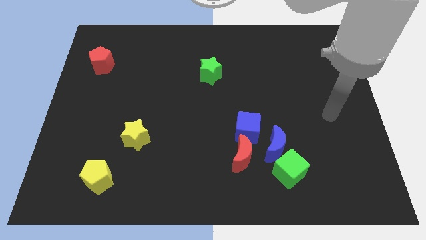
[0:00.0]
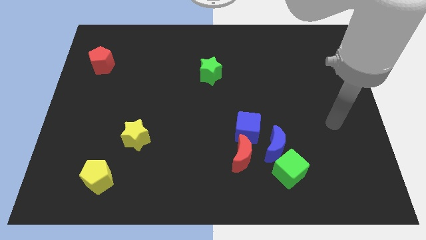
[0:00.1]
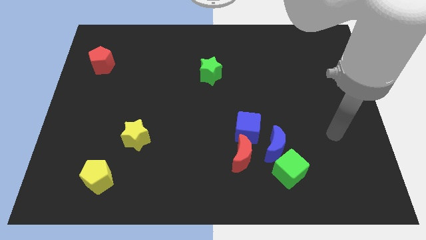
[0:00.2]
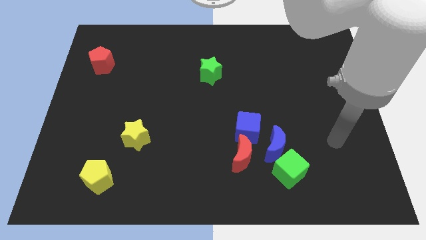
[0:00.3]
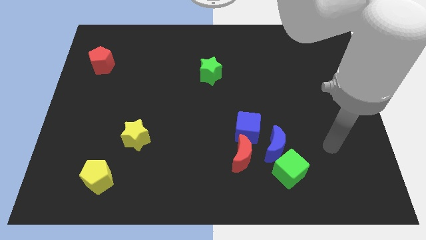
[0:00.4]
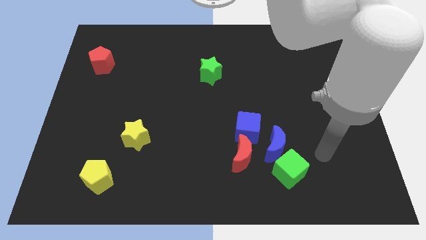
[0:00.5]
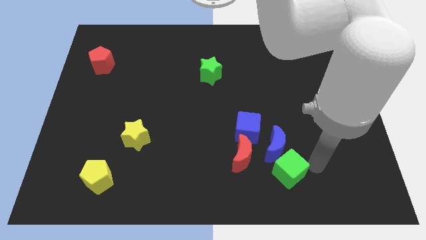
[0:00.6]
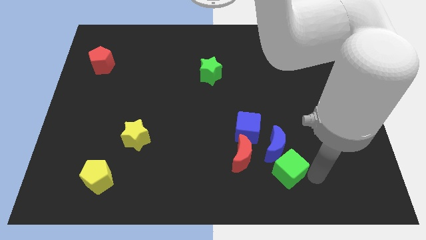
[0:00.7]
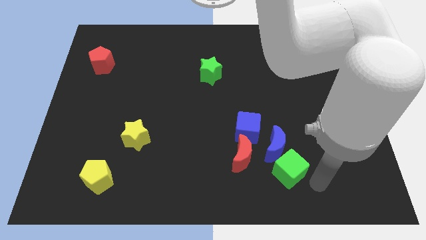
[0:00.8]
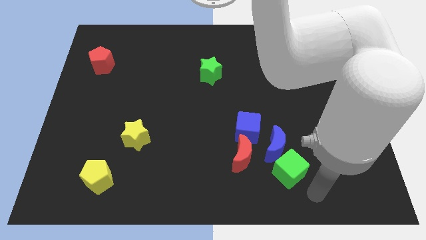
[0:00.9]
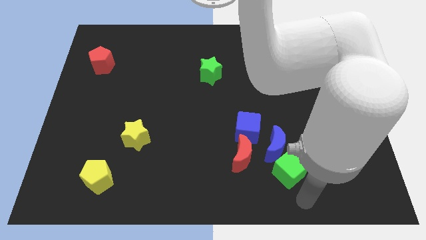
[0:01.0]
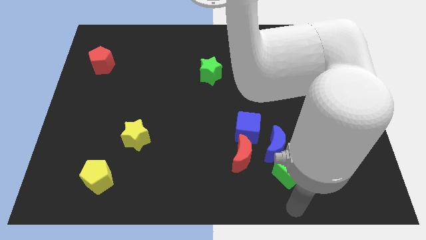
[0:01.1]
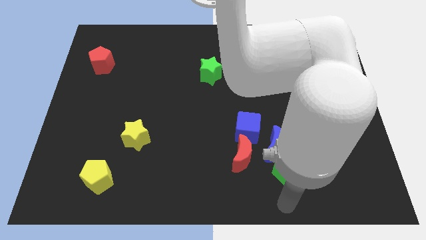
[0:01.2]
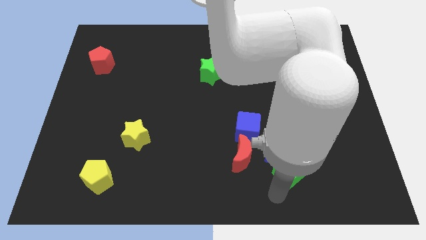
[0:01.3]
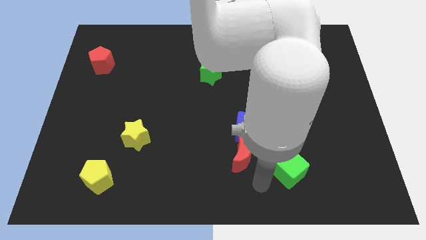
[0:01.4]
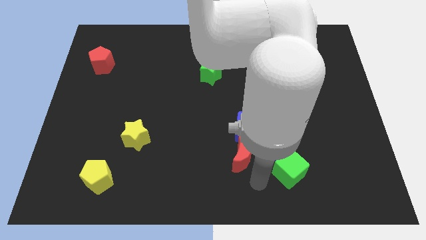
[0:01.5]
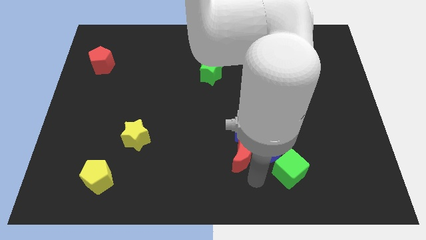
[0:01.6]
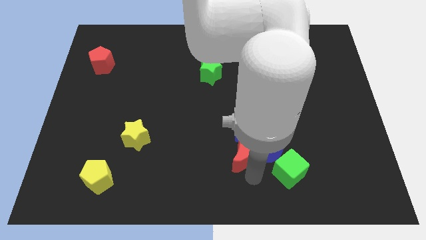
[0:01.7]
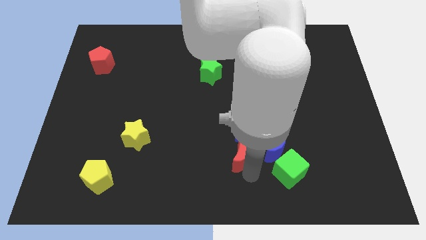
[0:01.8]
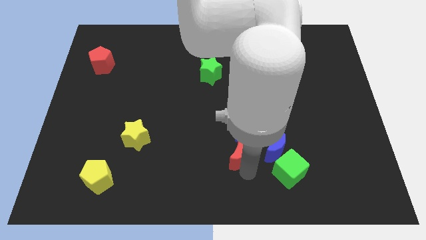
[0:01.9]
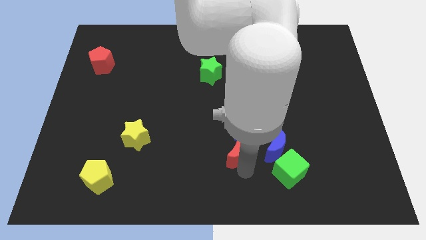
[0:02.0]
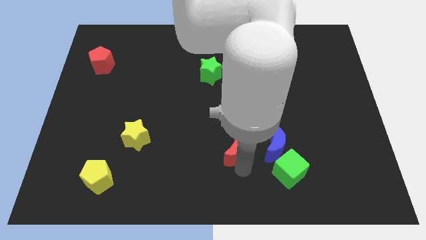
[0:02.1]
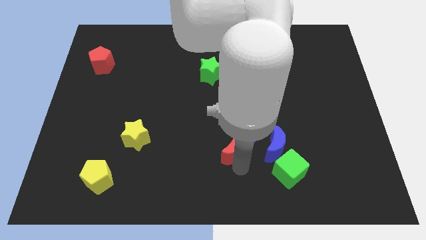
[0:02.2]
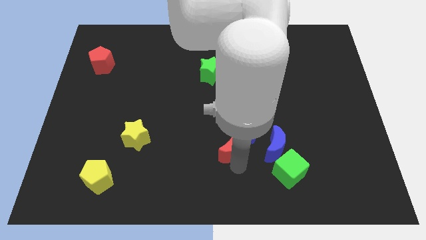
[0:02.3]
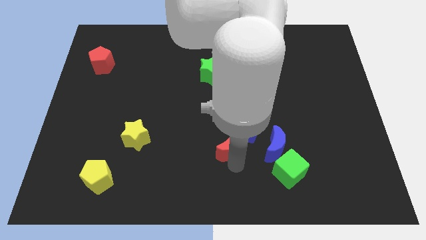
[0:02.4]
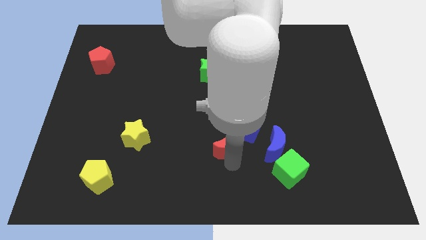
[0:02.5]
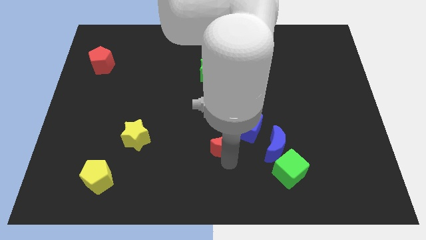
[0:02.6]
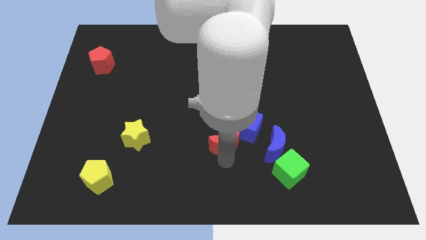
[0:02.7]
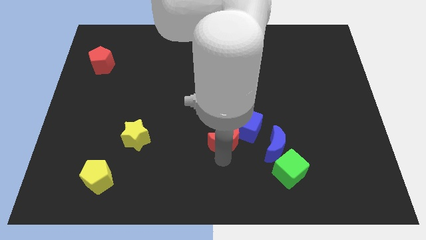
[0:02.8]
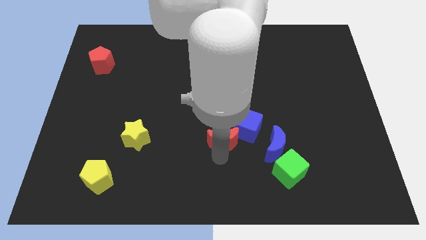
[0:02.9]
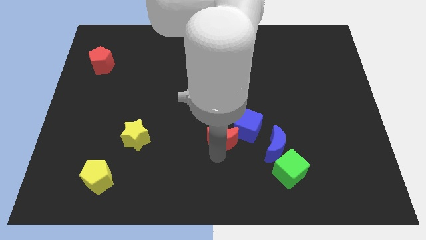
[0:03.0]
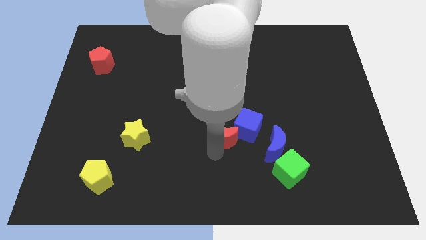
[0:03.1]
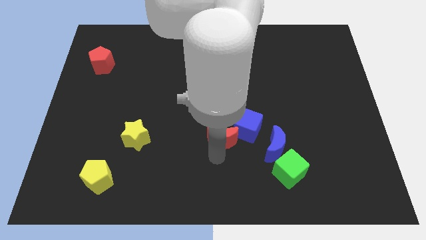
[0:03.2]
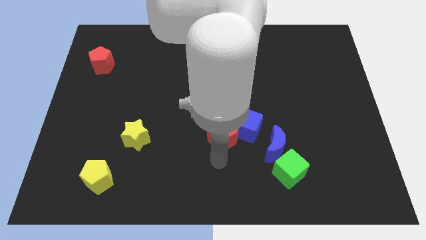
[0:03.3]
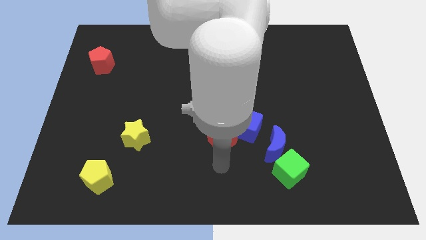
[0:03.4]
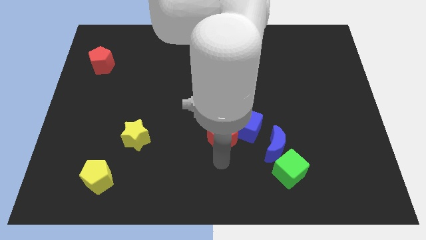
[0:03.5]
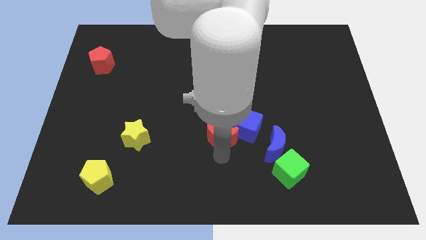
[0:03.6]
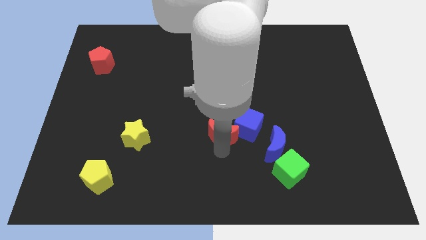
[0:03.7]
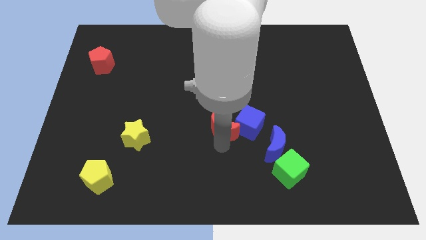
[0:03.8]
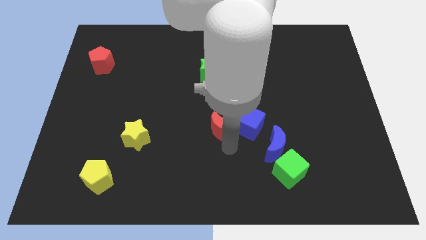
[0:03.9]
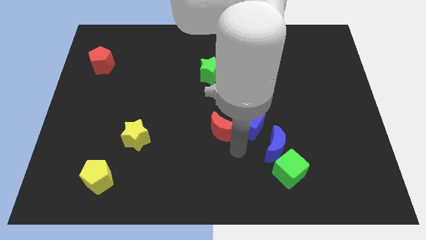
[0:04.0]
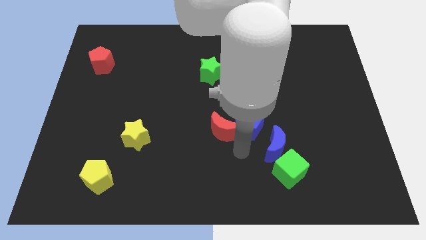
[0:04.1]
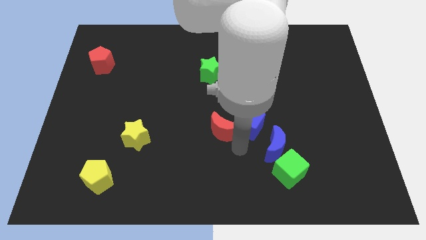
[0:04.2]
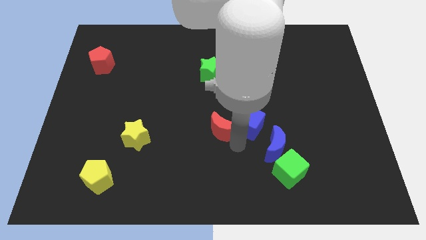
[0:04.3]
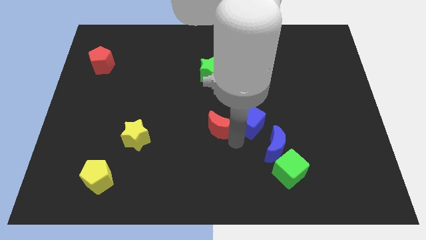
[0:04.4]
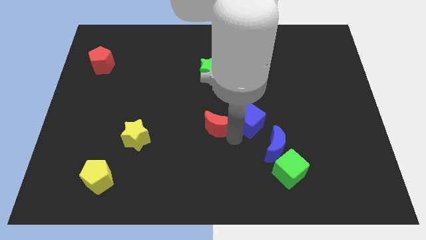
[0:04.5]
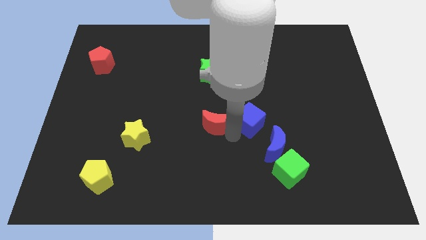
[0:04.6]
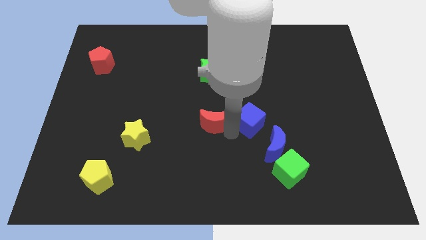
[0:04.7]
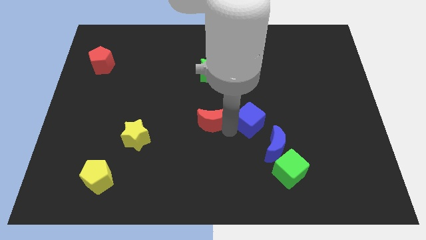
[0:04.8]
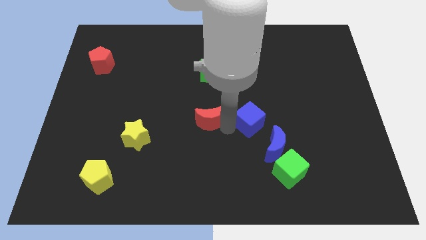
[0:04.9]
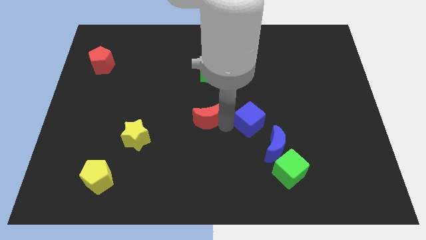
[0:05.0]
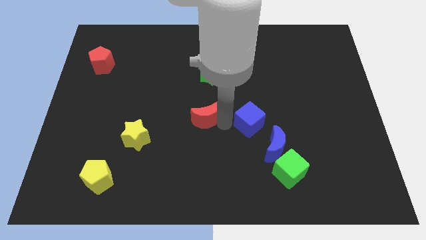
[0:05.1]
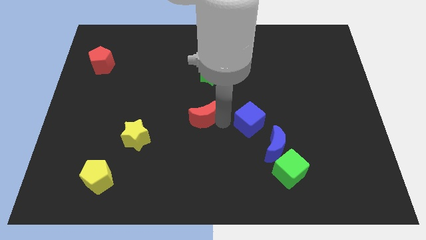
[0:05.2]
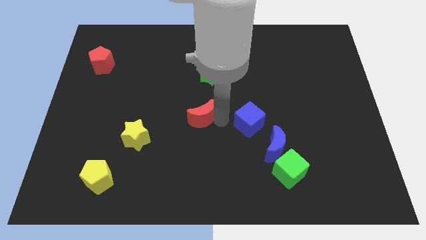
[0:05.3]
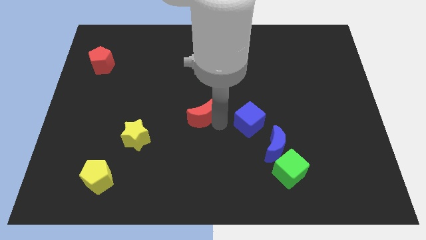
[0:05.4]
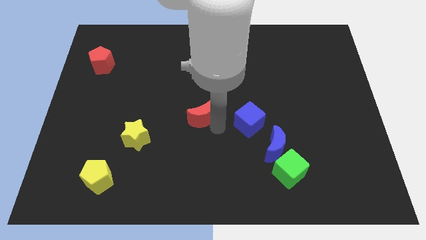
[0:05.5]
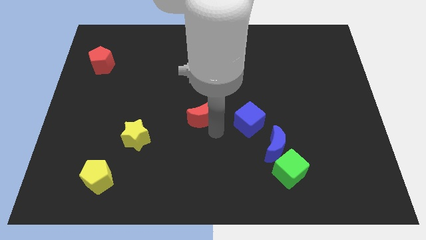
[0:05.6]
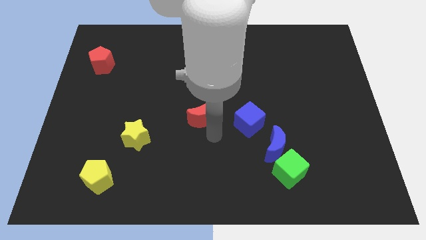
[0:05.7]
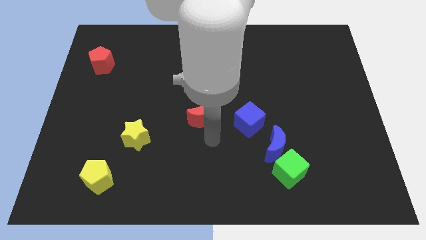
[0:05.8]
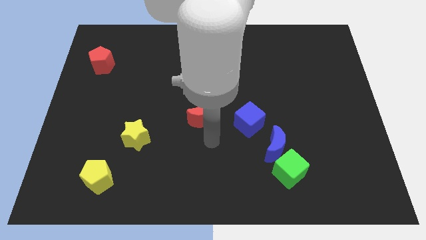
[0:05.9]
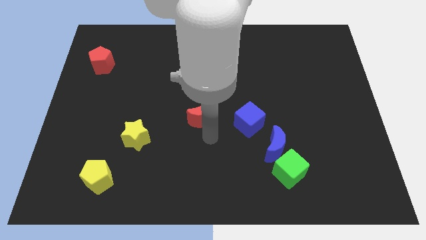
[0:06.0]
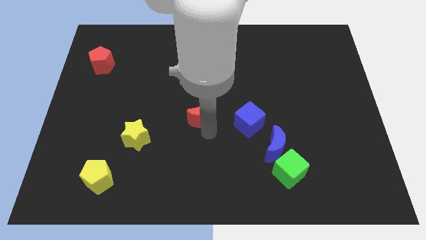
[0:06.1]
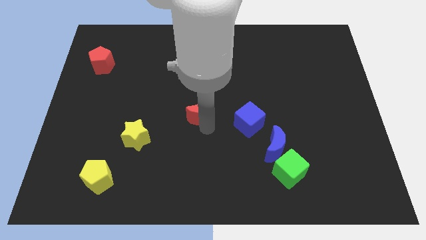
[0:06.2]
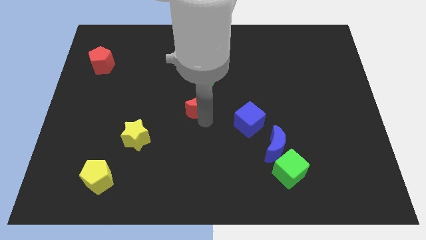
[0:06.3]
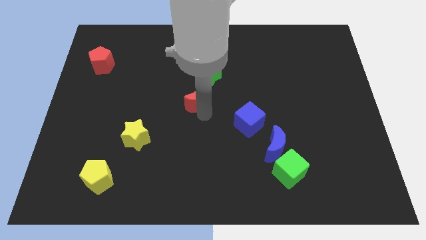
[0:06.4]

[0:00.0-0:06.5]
slide the red moon diagonally down and to the left of the green star
